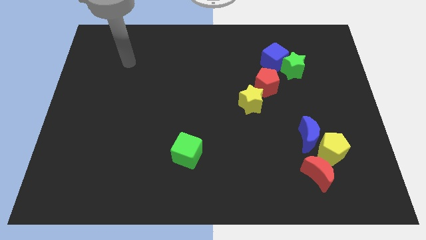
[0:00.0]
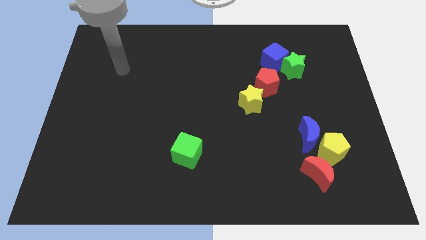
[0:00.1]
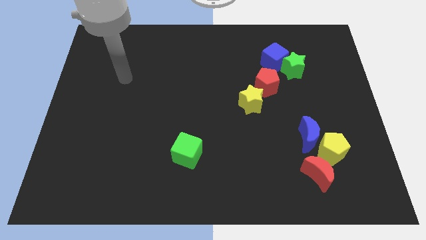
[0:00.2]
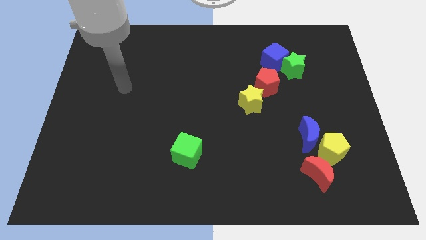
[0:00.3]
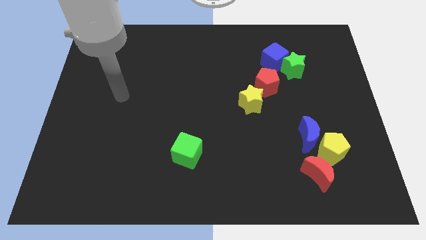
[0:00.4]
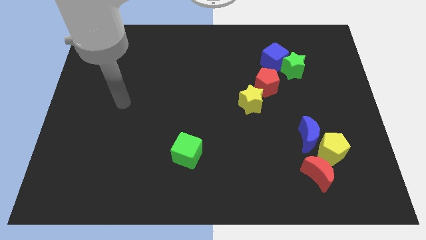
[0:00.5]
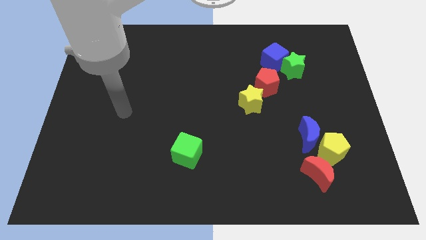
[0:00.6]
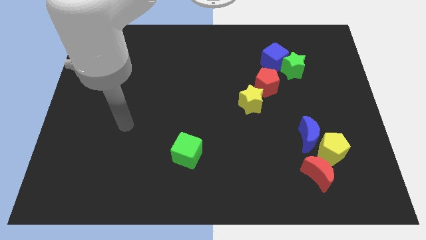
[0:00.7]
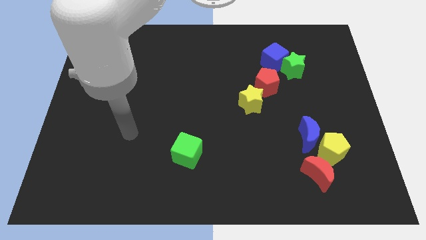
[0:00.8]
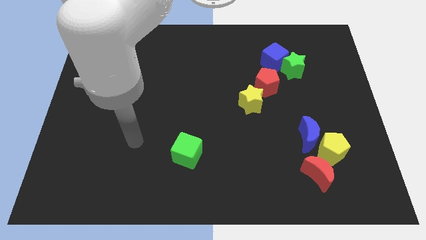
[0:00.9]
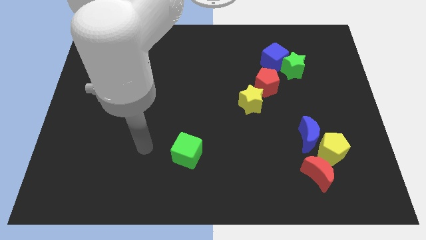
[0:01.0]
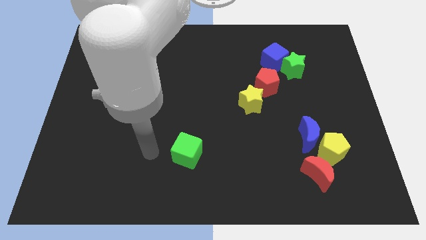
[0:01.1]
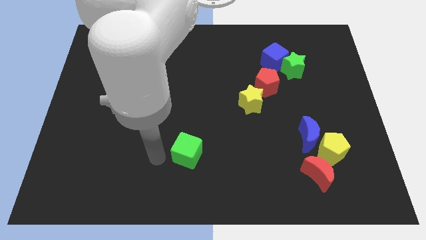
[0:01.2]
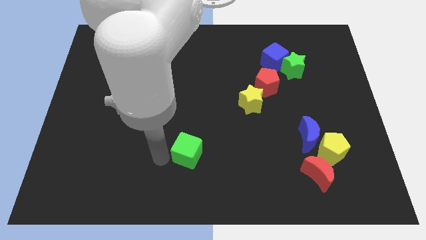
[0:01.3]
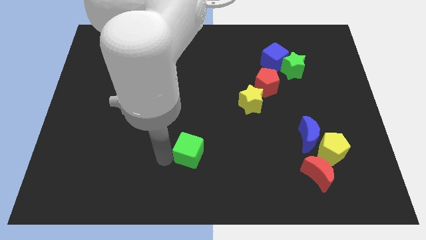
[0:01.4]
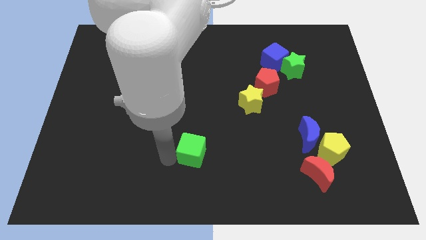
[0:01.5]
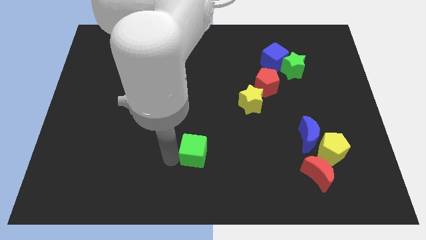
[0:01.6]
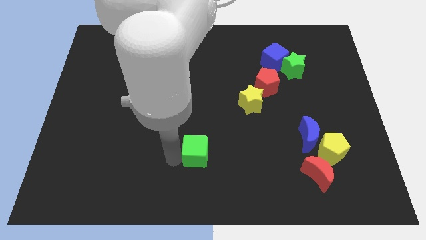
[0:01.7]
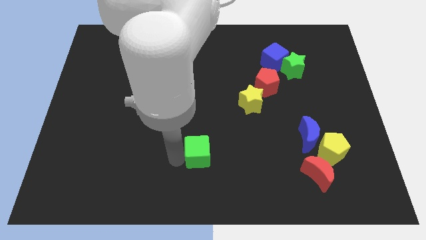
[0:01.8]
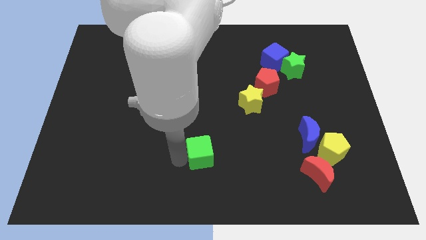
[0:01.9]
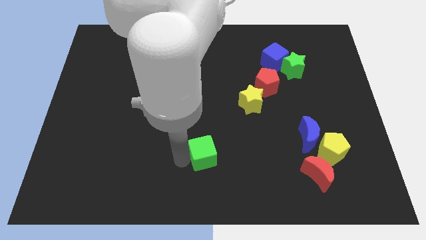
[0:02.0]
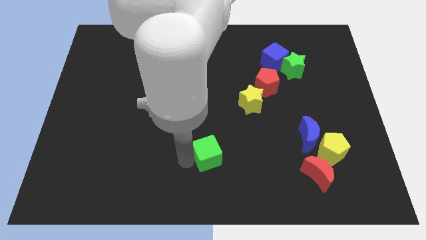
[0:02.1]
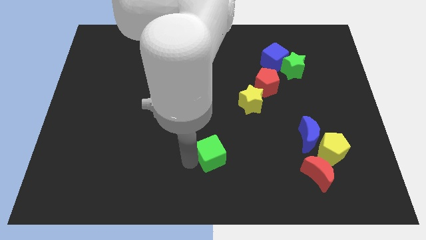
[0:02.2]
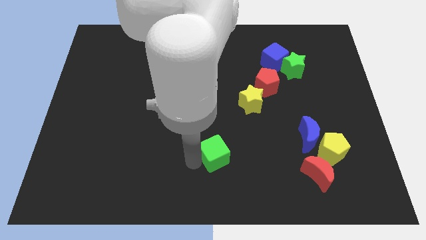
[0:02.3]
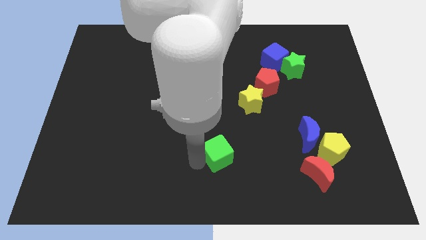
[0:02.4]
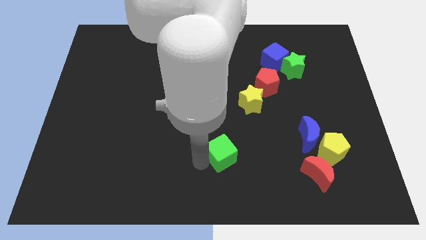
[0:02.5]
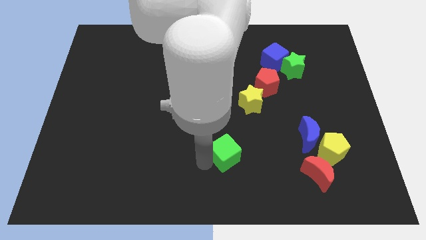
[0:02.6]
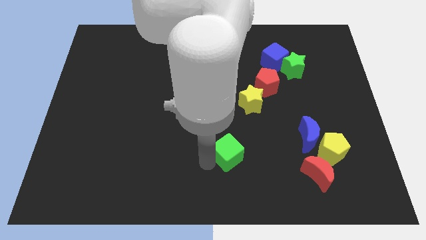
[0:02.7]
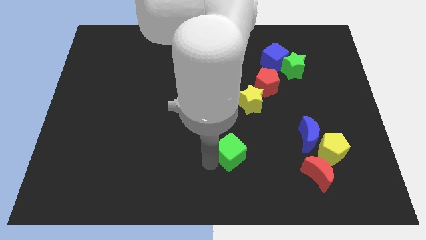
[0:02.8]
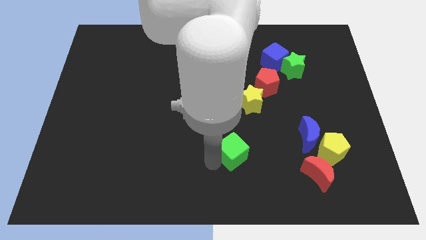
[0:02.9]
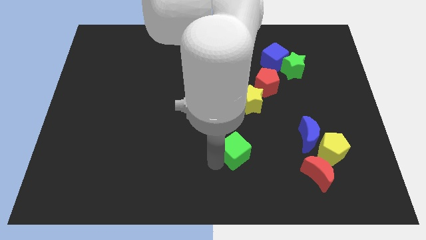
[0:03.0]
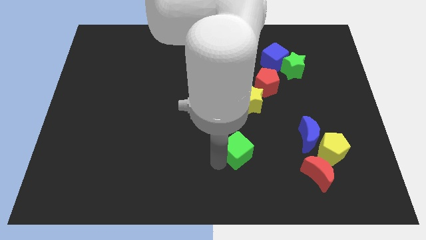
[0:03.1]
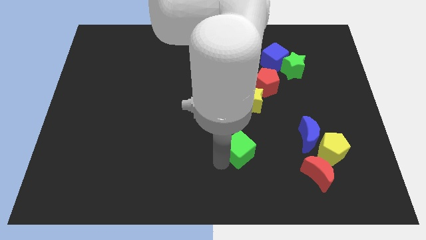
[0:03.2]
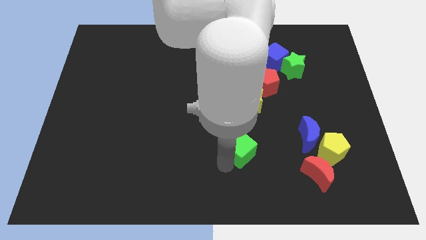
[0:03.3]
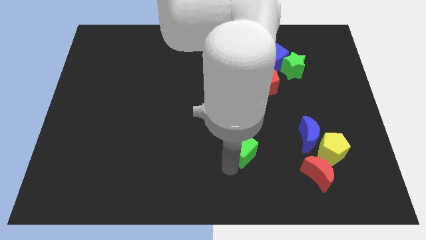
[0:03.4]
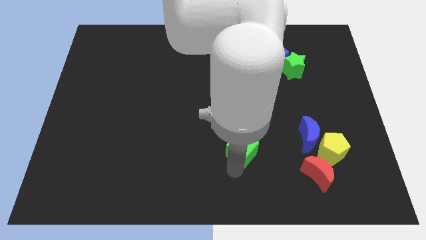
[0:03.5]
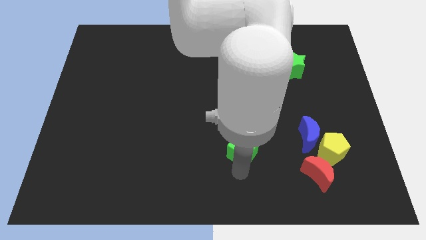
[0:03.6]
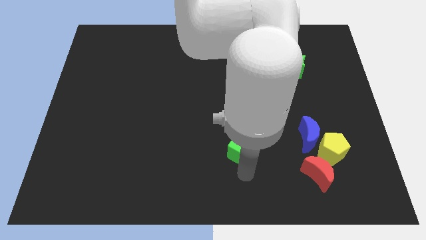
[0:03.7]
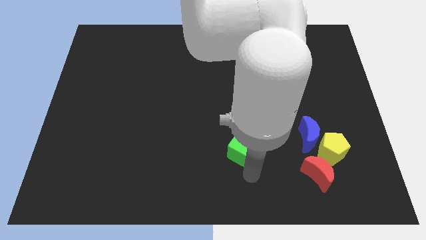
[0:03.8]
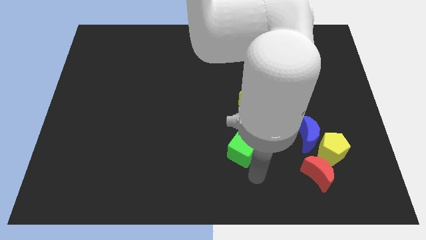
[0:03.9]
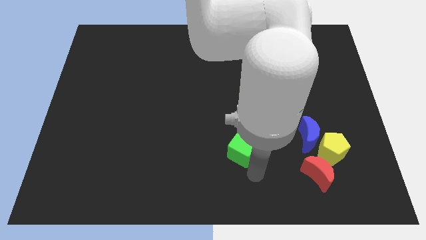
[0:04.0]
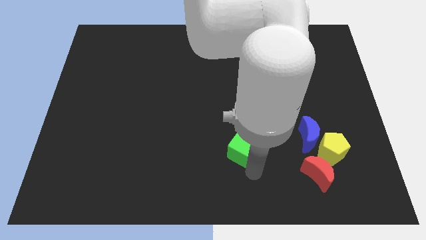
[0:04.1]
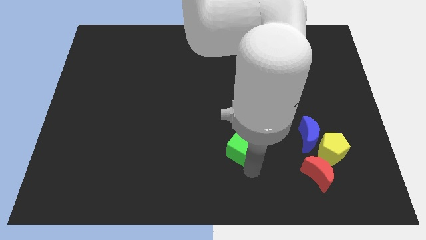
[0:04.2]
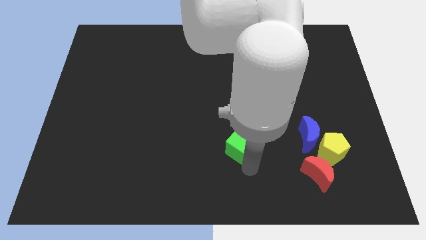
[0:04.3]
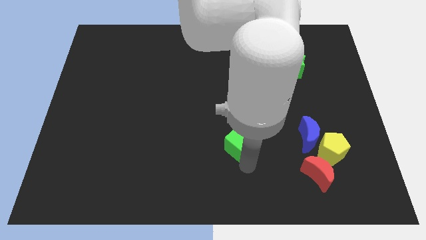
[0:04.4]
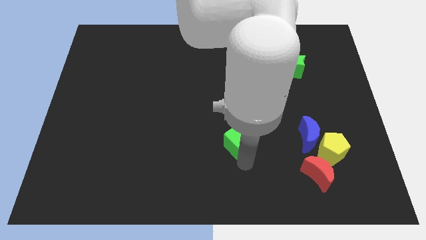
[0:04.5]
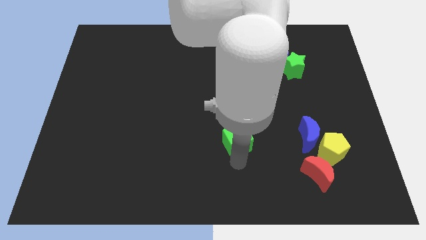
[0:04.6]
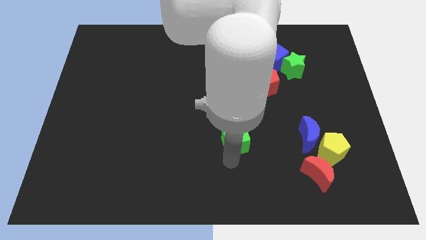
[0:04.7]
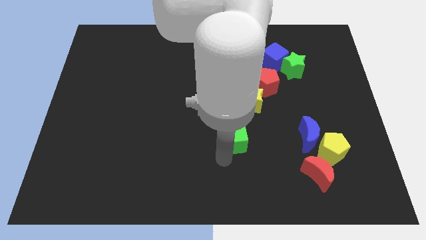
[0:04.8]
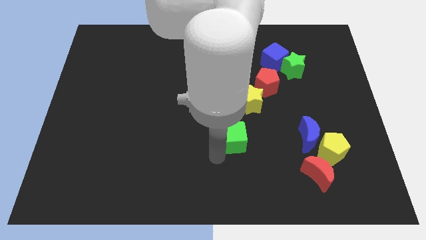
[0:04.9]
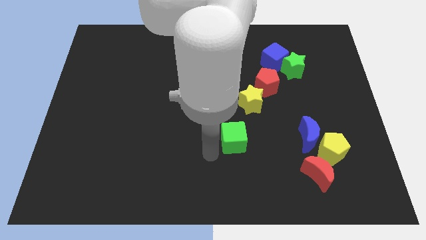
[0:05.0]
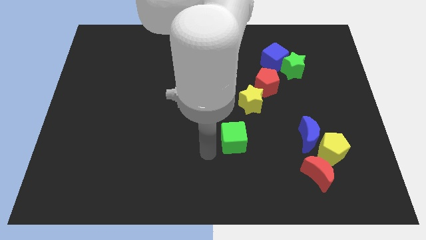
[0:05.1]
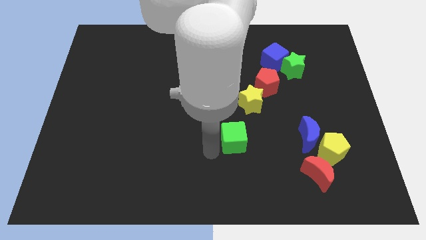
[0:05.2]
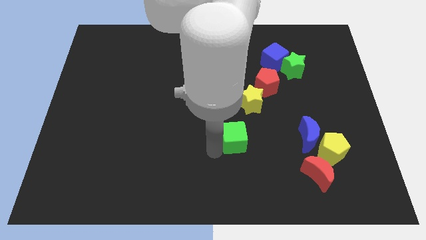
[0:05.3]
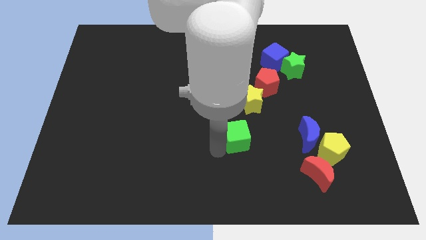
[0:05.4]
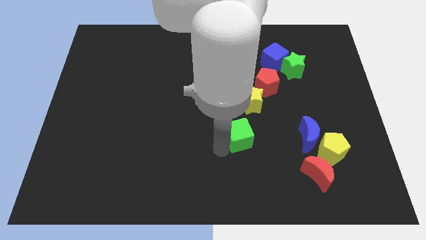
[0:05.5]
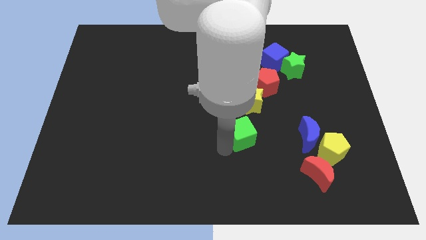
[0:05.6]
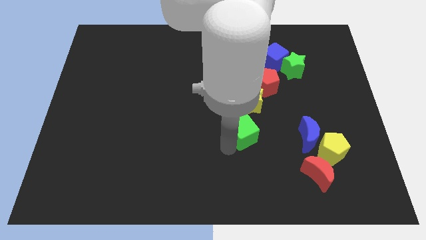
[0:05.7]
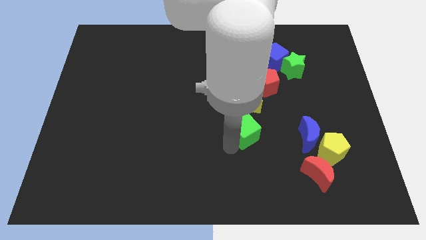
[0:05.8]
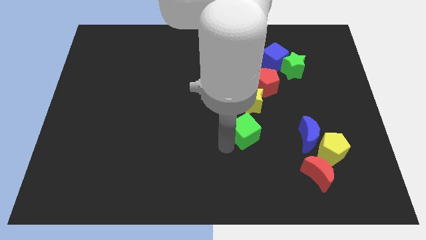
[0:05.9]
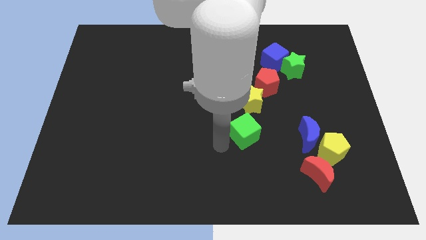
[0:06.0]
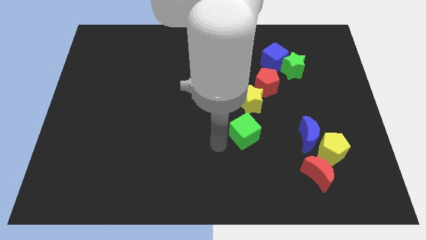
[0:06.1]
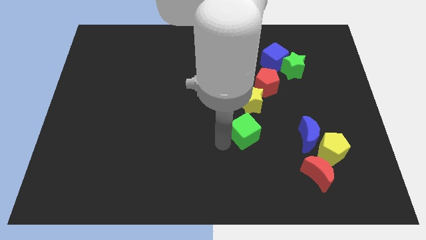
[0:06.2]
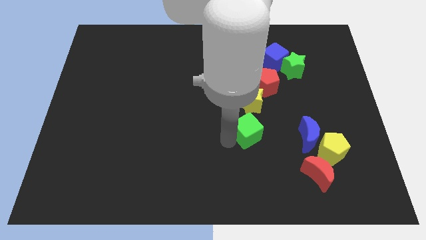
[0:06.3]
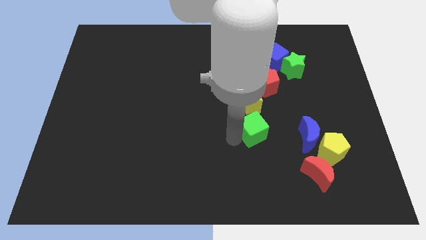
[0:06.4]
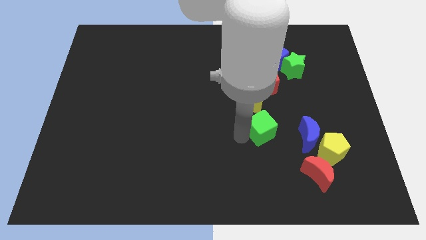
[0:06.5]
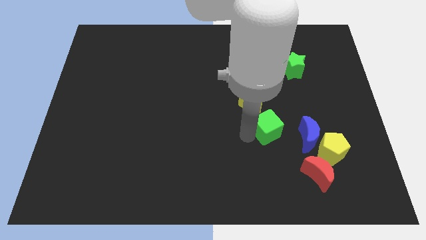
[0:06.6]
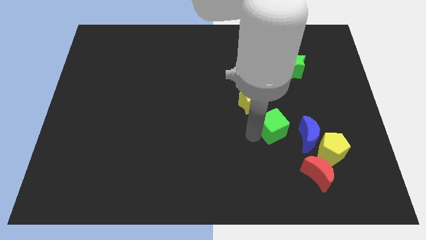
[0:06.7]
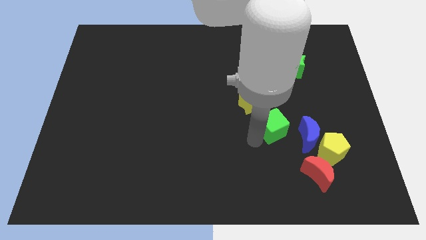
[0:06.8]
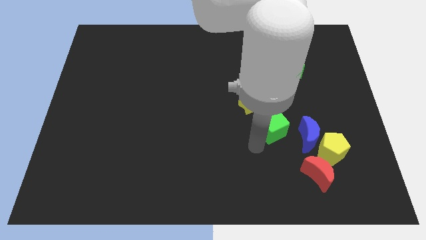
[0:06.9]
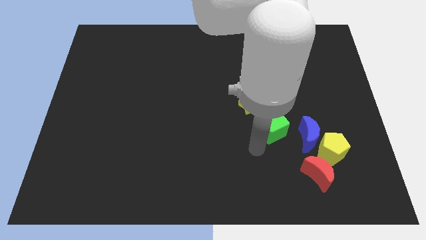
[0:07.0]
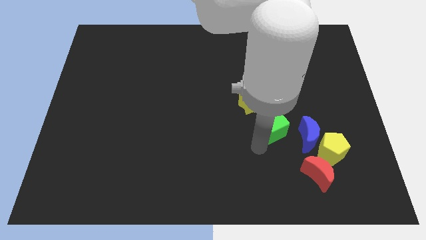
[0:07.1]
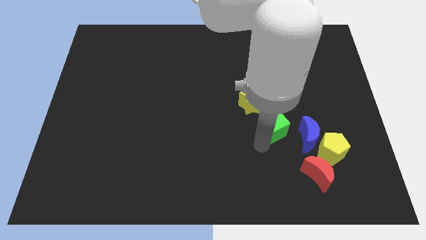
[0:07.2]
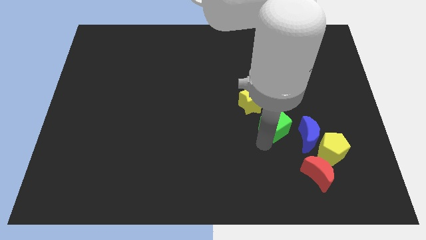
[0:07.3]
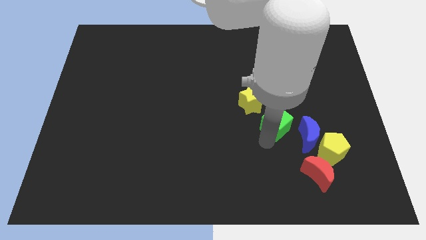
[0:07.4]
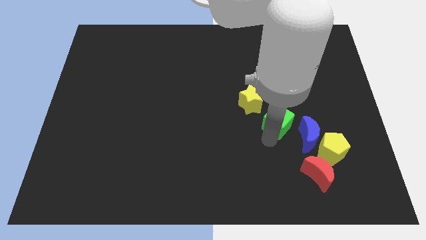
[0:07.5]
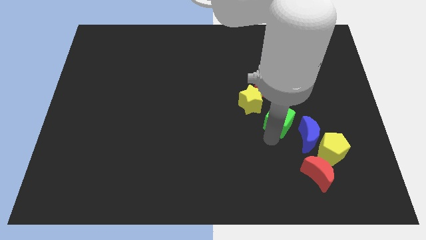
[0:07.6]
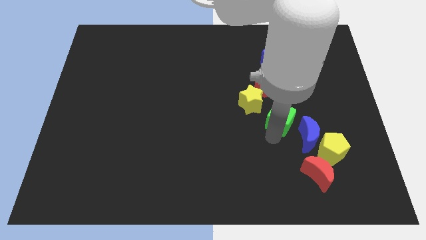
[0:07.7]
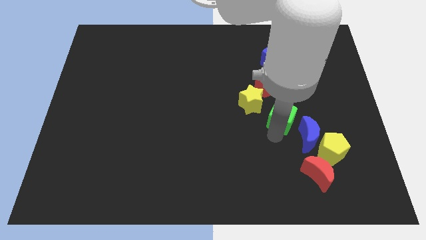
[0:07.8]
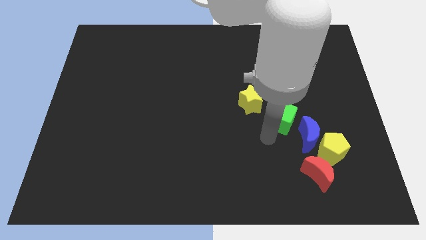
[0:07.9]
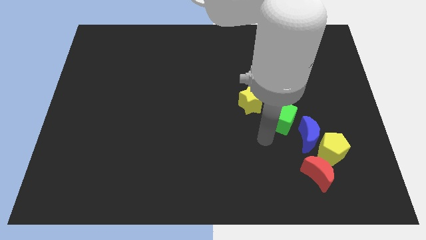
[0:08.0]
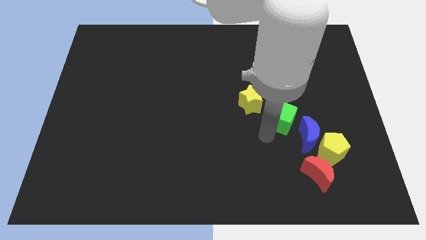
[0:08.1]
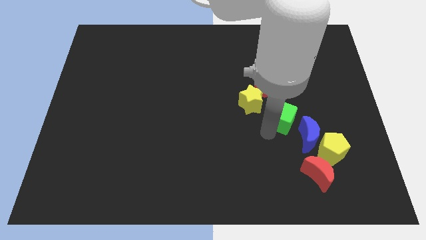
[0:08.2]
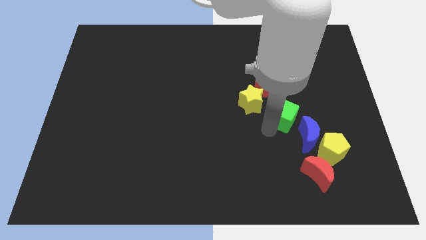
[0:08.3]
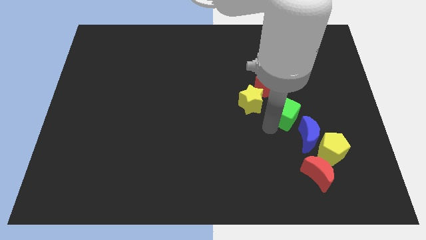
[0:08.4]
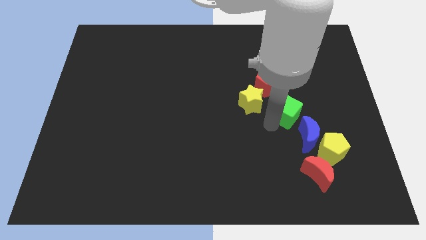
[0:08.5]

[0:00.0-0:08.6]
put the green cube to the bottom side of the green star
